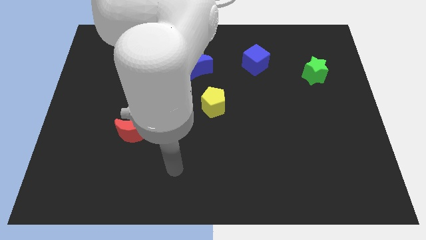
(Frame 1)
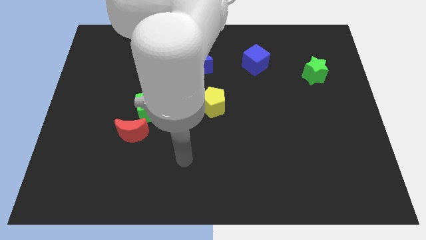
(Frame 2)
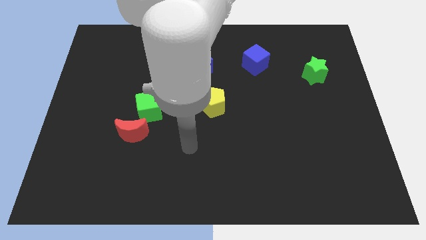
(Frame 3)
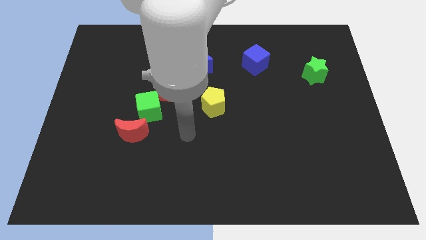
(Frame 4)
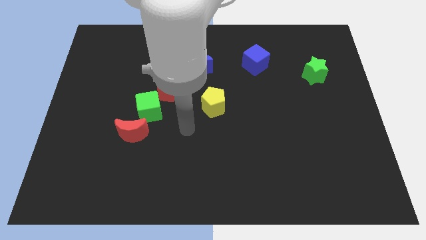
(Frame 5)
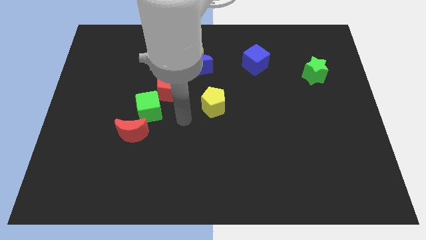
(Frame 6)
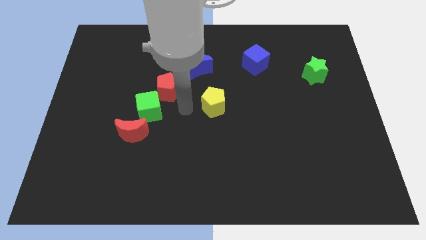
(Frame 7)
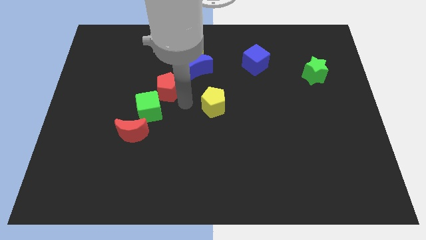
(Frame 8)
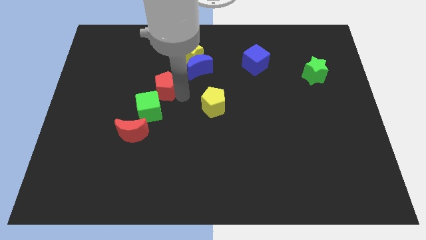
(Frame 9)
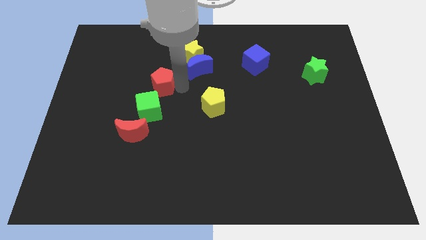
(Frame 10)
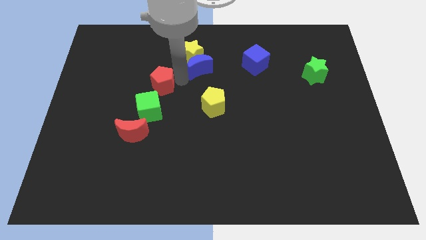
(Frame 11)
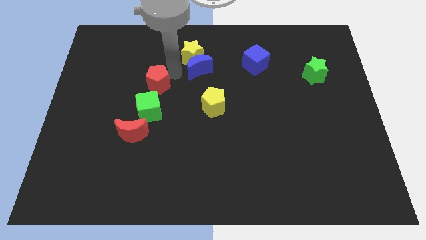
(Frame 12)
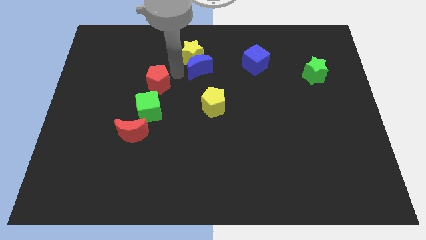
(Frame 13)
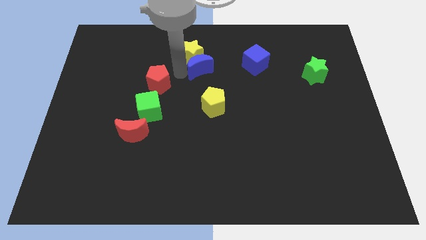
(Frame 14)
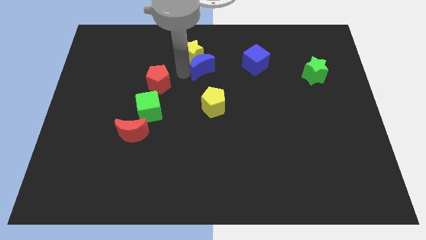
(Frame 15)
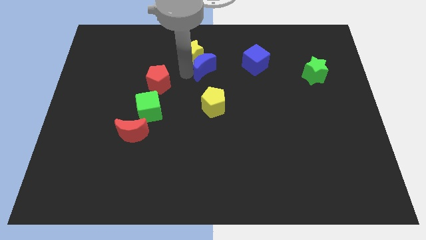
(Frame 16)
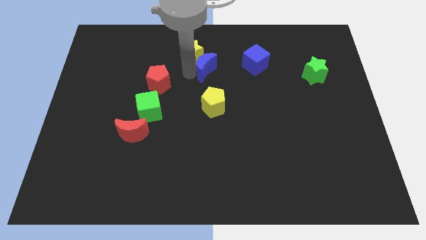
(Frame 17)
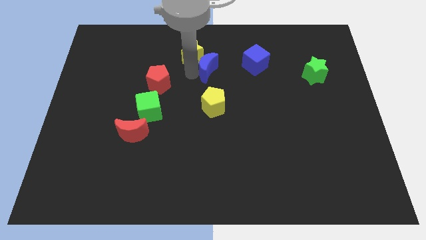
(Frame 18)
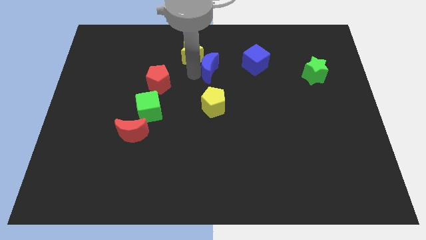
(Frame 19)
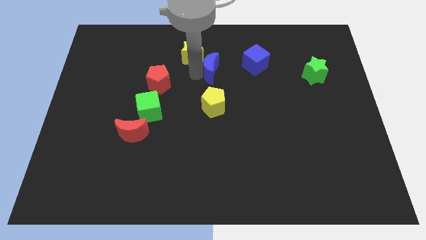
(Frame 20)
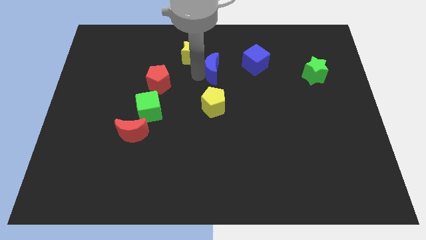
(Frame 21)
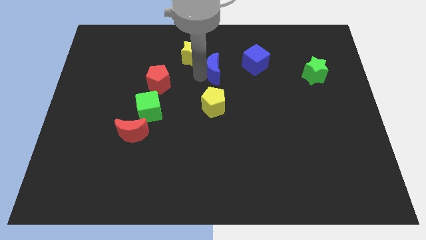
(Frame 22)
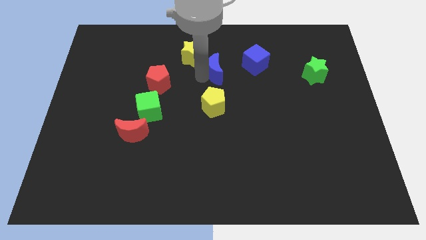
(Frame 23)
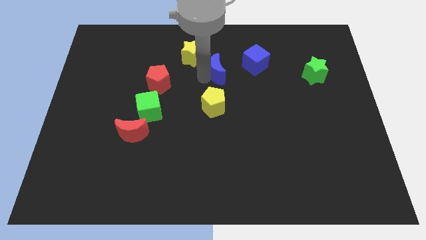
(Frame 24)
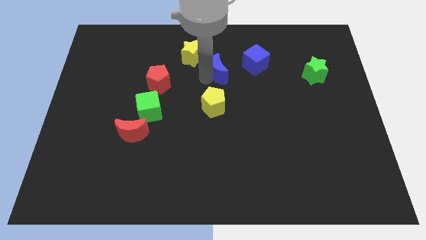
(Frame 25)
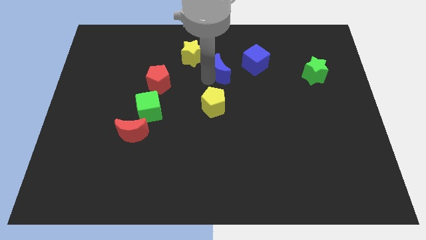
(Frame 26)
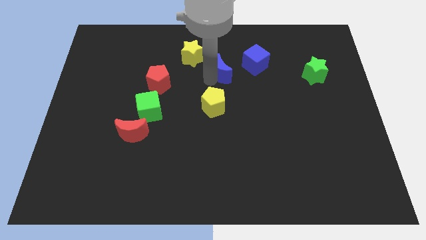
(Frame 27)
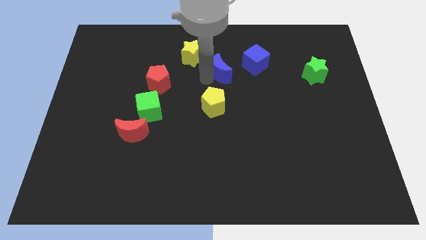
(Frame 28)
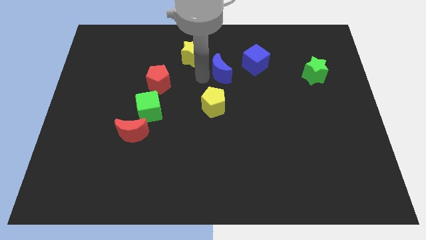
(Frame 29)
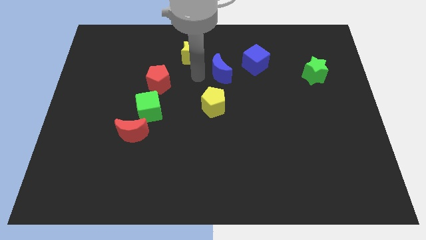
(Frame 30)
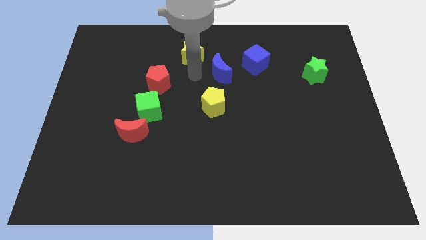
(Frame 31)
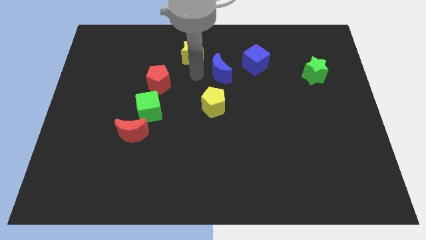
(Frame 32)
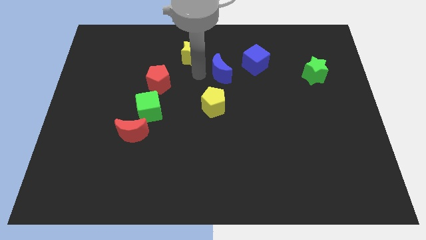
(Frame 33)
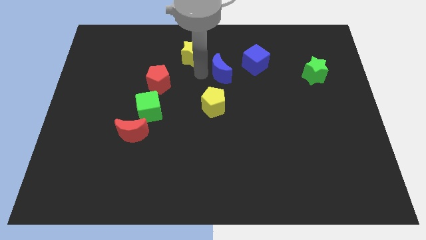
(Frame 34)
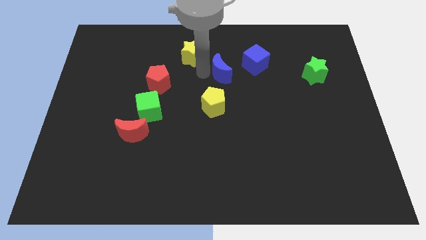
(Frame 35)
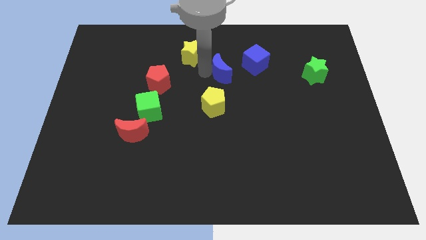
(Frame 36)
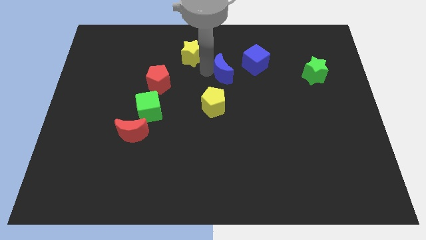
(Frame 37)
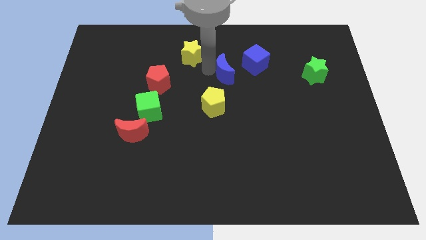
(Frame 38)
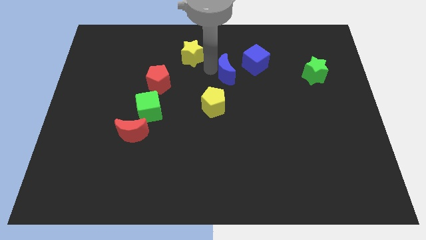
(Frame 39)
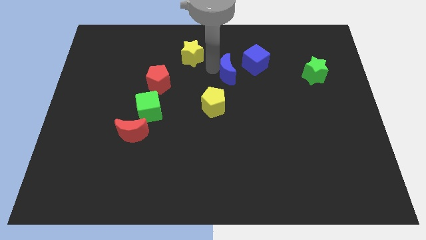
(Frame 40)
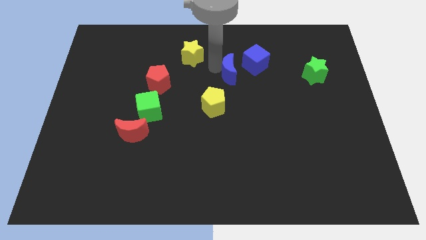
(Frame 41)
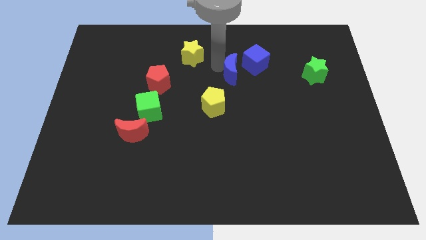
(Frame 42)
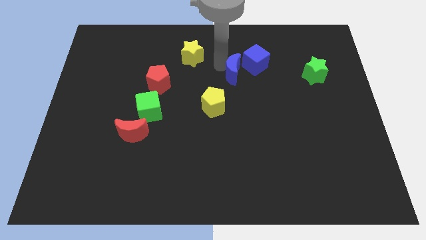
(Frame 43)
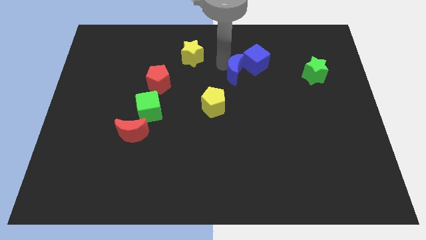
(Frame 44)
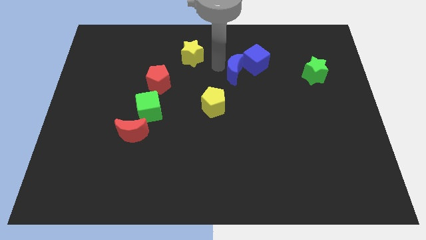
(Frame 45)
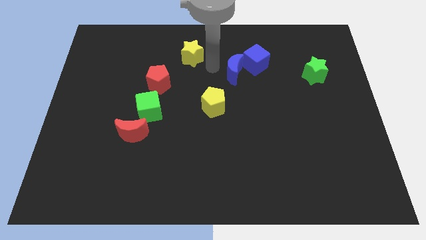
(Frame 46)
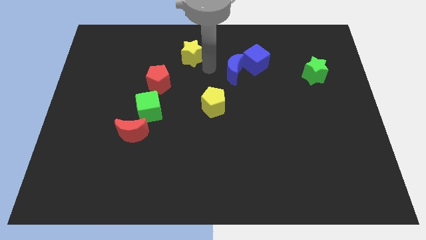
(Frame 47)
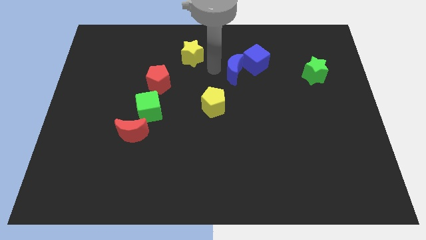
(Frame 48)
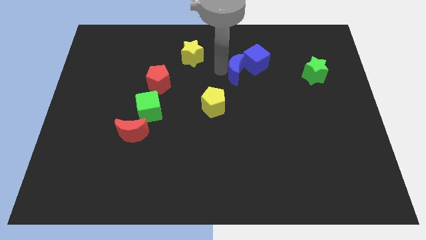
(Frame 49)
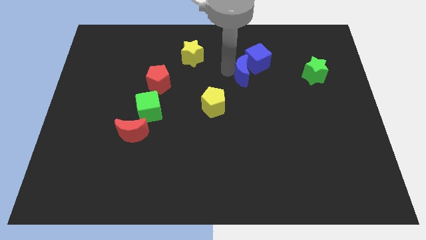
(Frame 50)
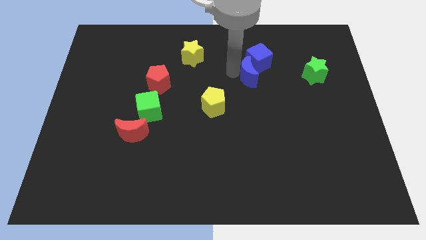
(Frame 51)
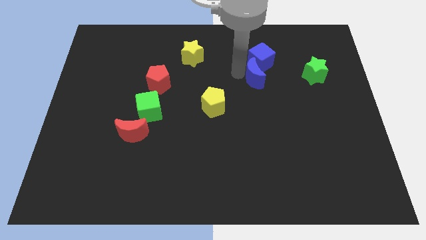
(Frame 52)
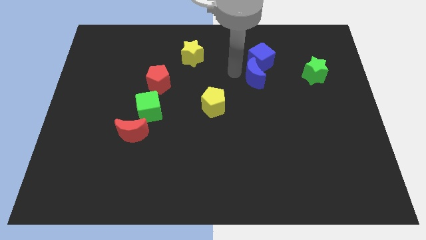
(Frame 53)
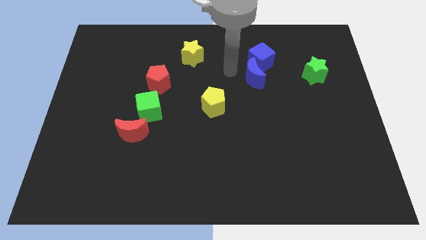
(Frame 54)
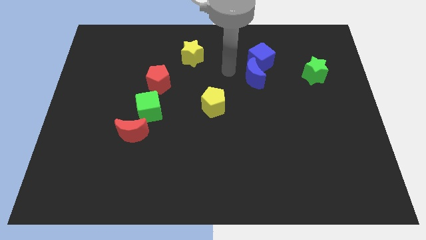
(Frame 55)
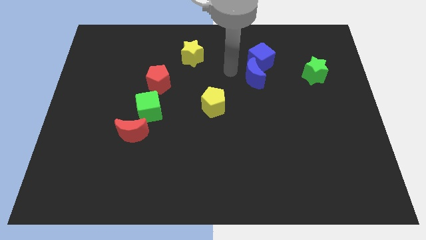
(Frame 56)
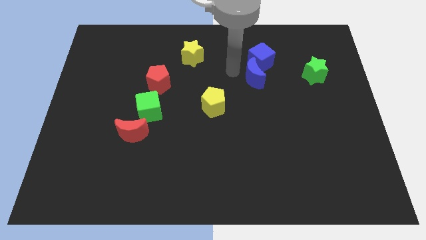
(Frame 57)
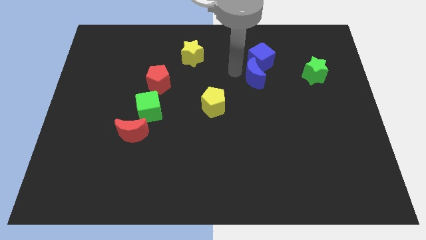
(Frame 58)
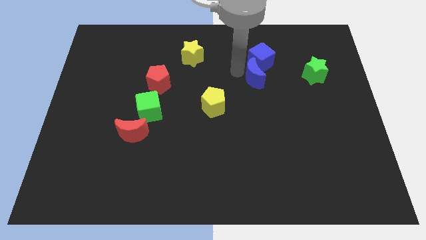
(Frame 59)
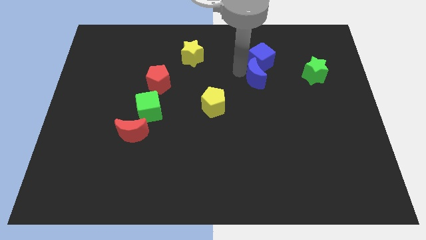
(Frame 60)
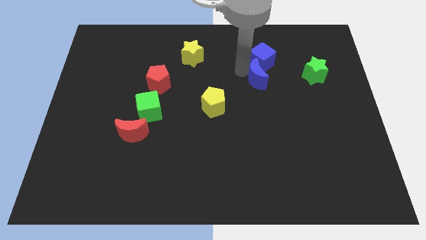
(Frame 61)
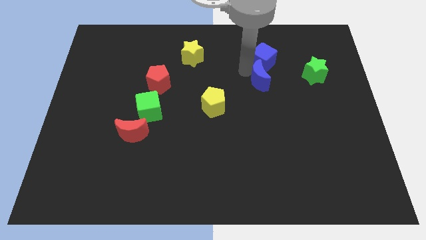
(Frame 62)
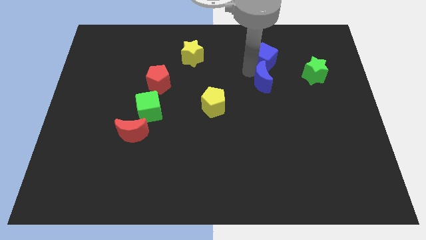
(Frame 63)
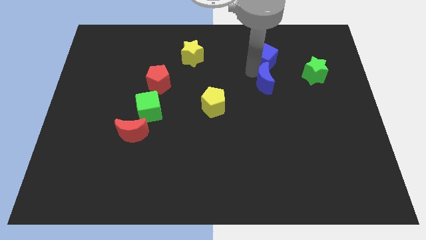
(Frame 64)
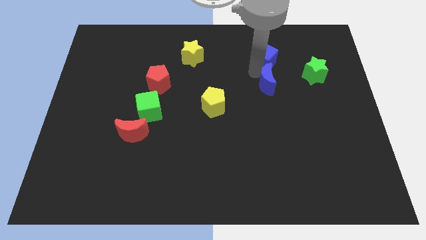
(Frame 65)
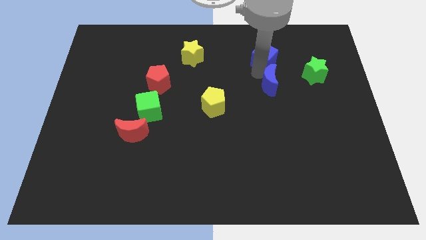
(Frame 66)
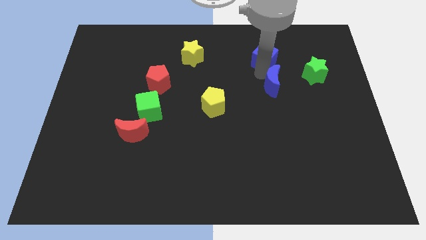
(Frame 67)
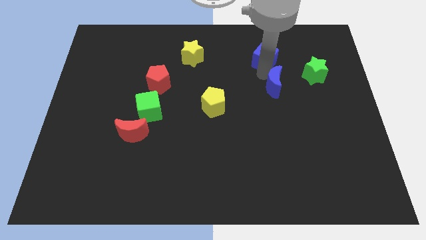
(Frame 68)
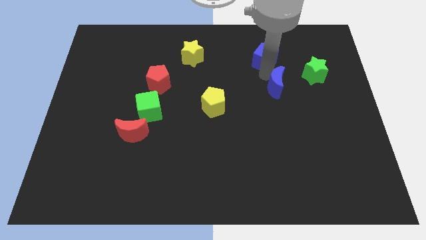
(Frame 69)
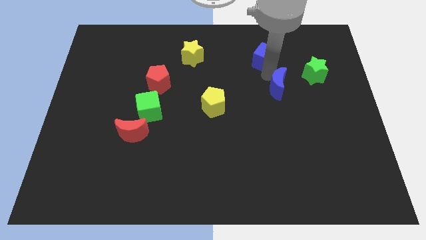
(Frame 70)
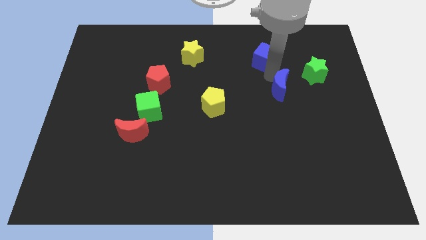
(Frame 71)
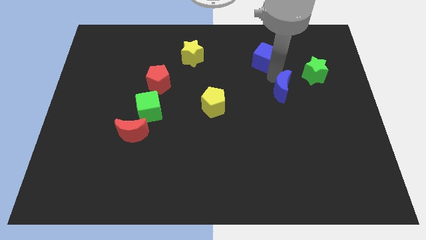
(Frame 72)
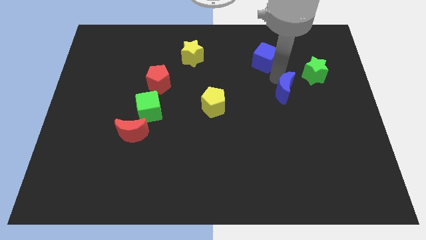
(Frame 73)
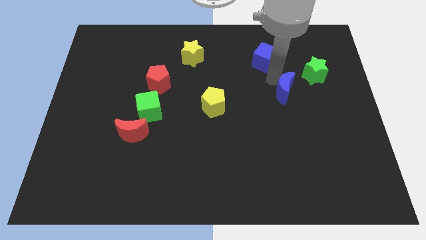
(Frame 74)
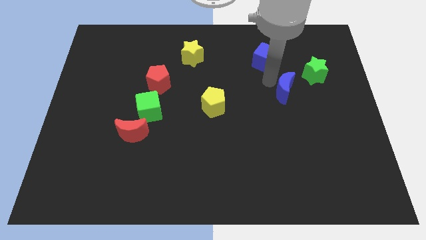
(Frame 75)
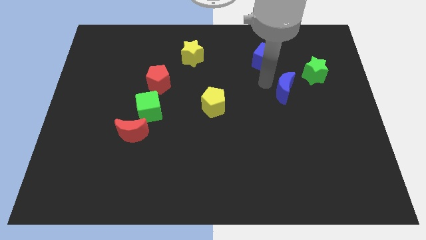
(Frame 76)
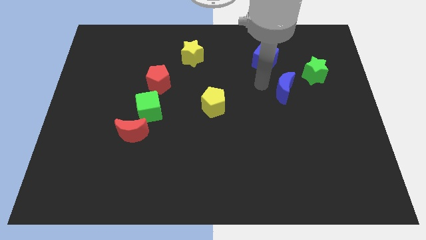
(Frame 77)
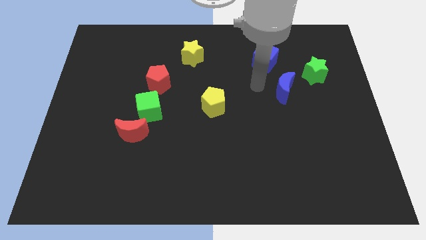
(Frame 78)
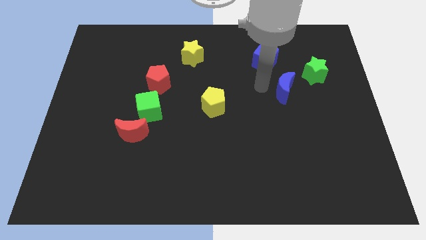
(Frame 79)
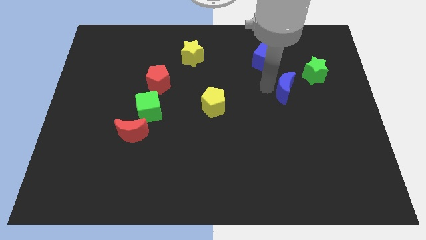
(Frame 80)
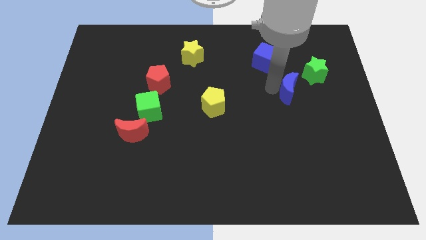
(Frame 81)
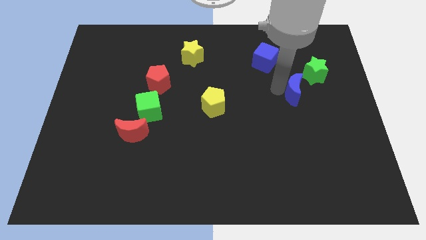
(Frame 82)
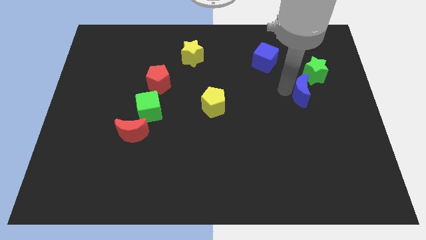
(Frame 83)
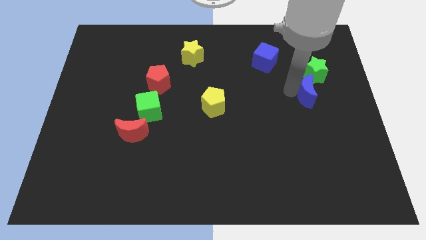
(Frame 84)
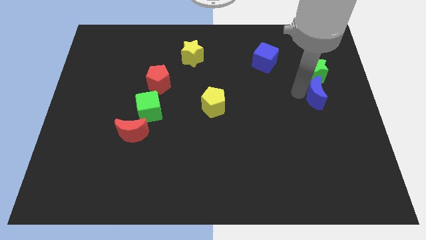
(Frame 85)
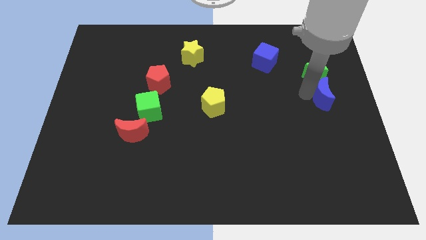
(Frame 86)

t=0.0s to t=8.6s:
slide the blue moon to the center right
